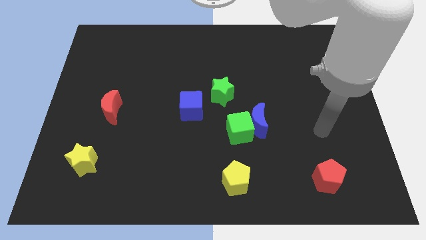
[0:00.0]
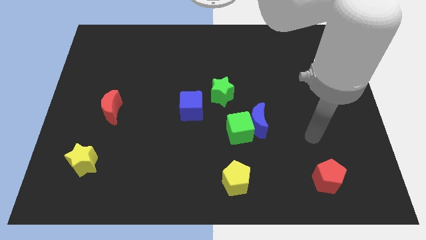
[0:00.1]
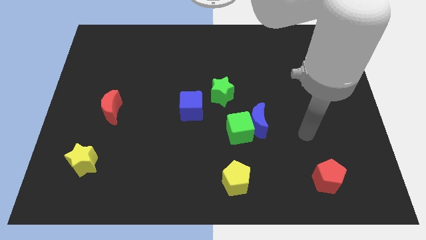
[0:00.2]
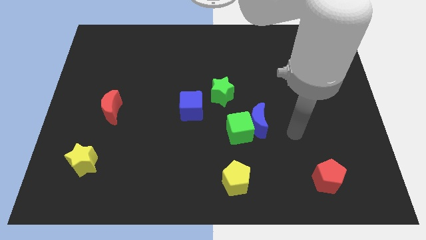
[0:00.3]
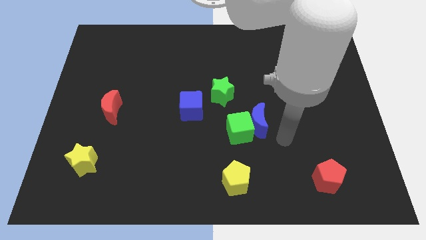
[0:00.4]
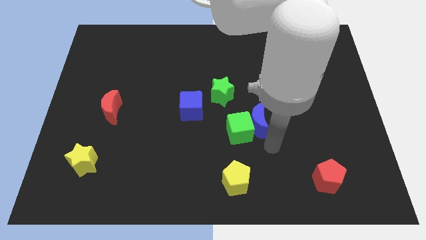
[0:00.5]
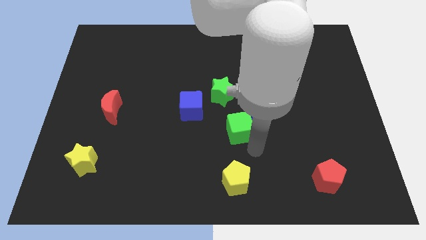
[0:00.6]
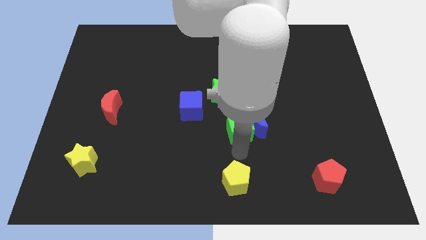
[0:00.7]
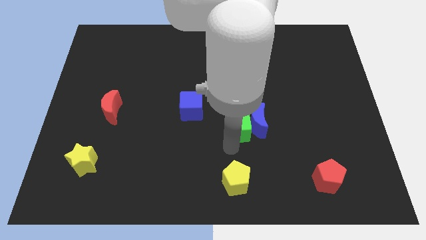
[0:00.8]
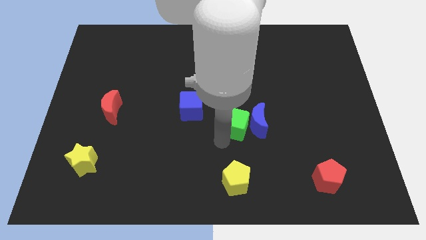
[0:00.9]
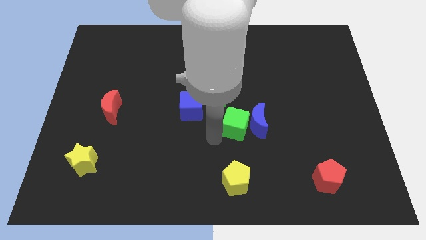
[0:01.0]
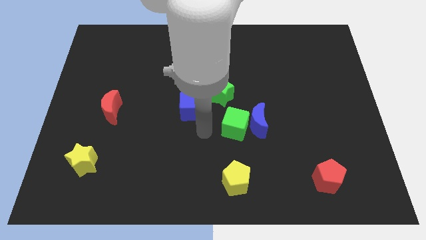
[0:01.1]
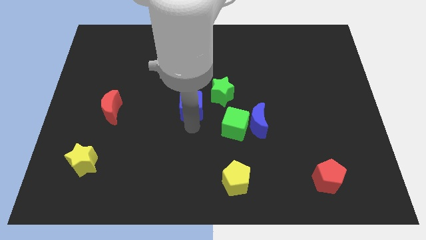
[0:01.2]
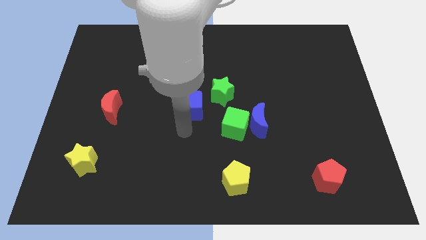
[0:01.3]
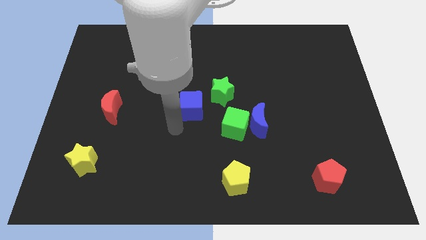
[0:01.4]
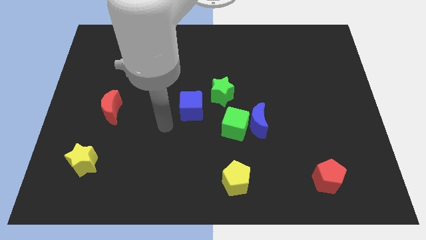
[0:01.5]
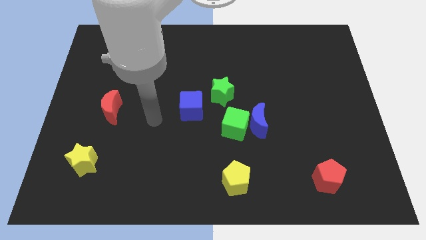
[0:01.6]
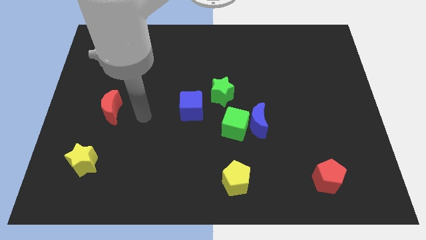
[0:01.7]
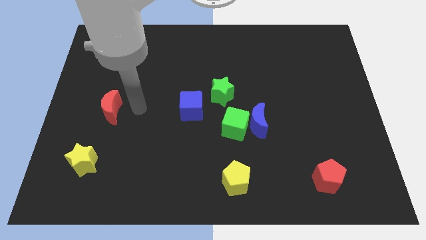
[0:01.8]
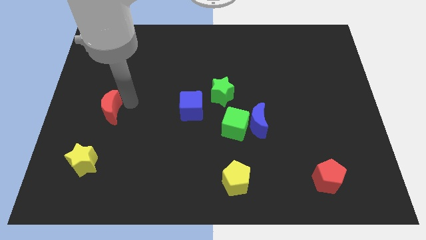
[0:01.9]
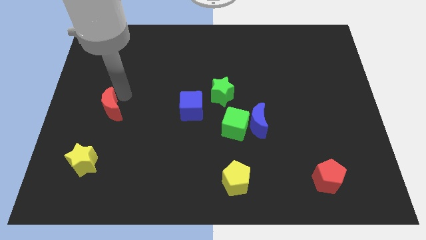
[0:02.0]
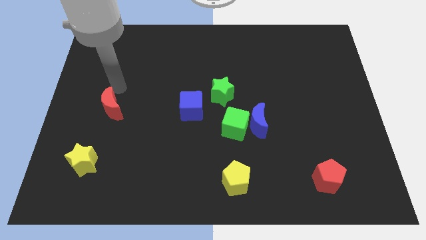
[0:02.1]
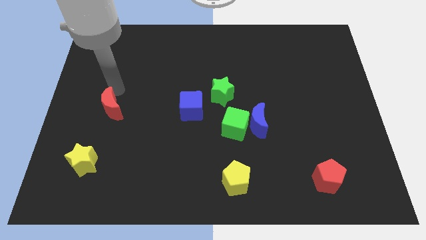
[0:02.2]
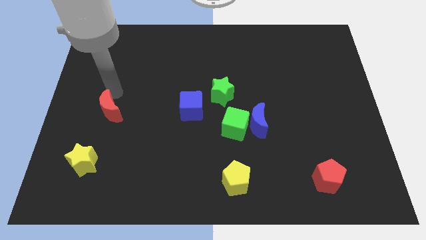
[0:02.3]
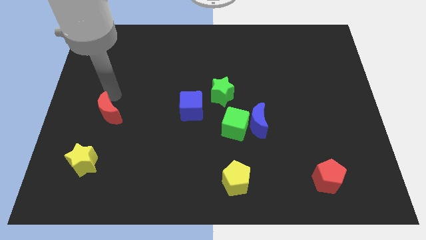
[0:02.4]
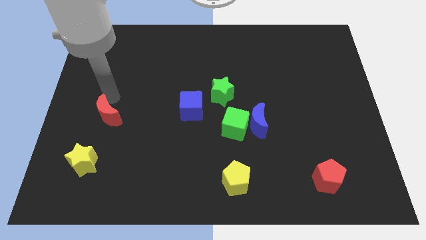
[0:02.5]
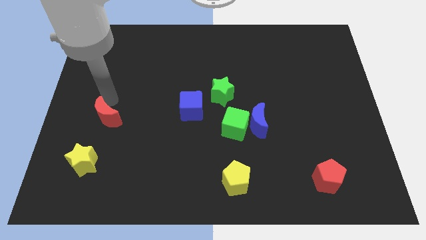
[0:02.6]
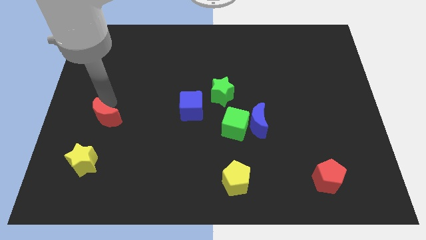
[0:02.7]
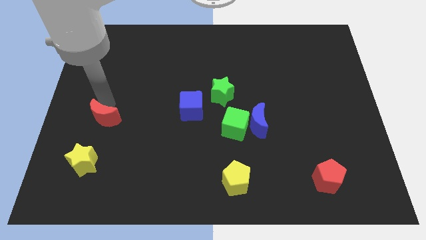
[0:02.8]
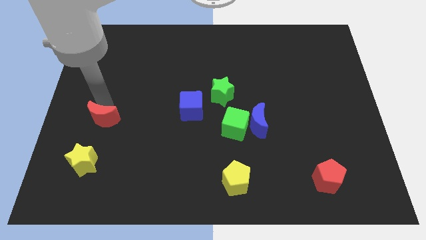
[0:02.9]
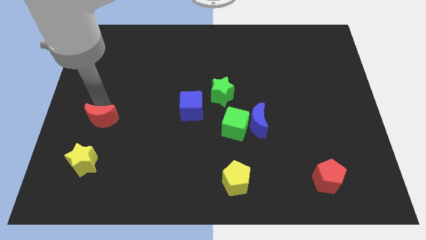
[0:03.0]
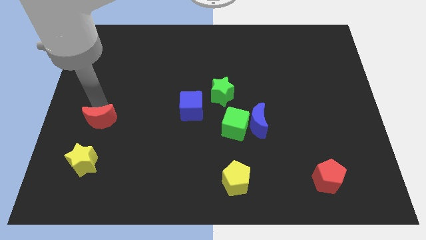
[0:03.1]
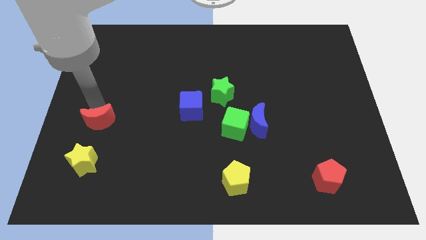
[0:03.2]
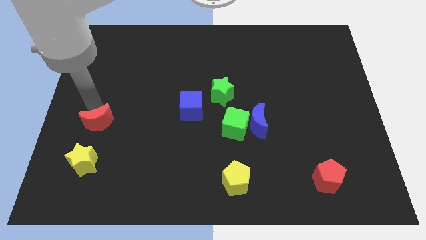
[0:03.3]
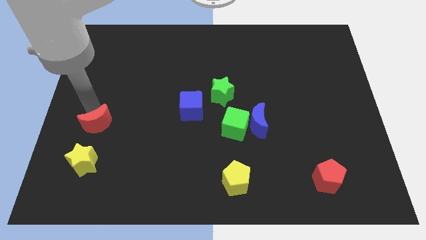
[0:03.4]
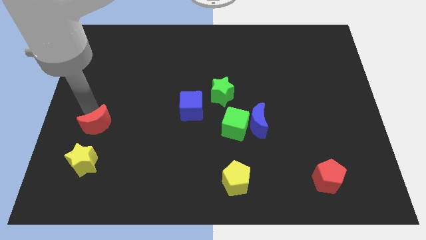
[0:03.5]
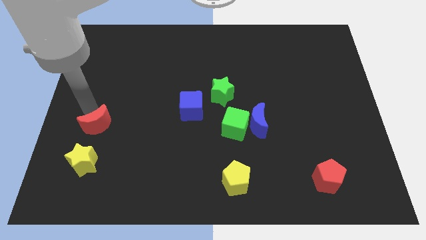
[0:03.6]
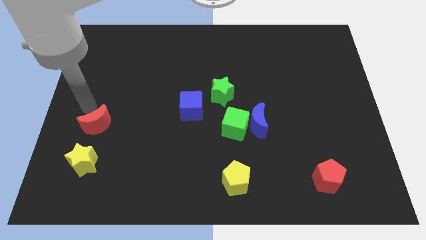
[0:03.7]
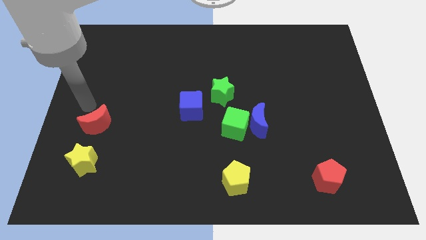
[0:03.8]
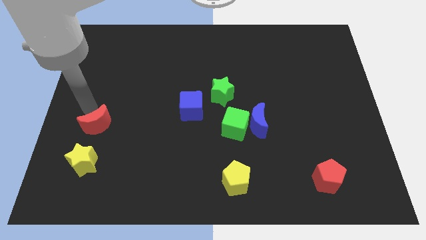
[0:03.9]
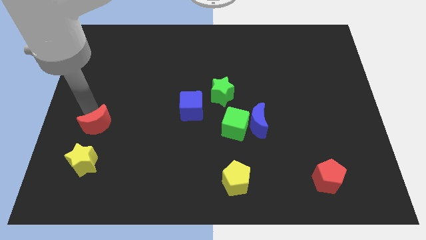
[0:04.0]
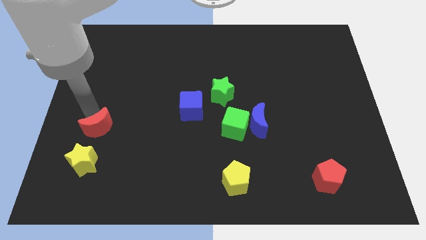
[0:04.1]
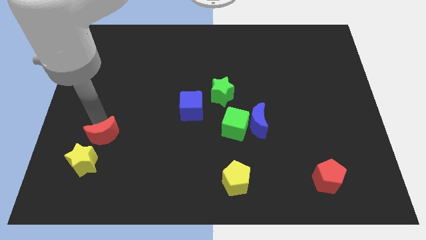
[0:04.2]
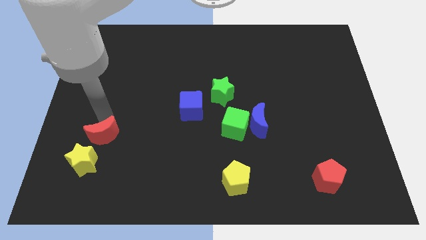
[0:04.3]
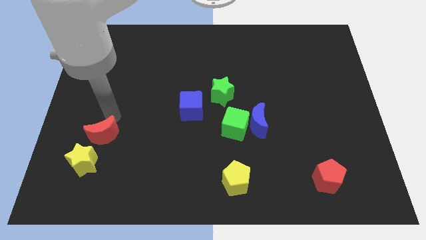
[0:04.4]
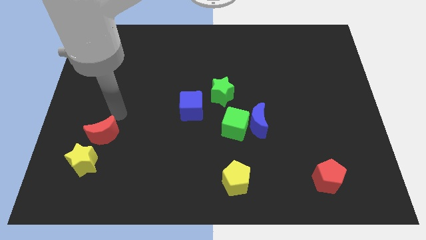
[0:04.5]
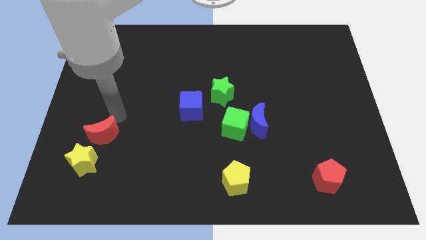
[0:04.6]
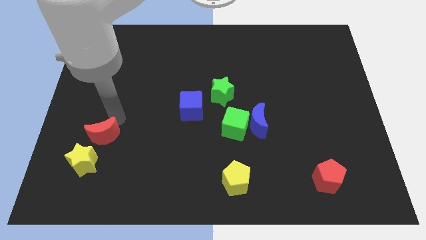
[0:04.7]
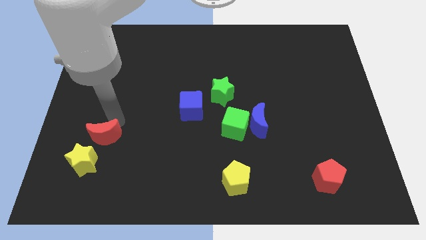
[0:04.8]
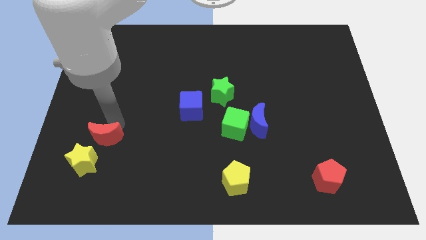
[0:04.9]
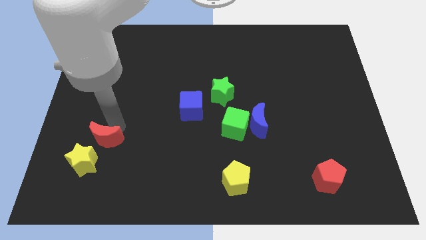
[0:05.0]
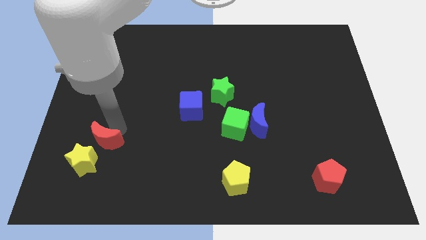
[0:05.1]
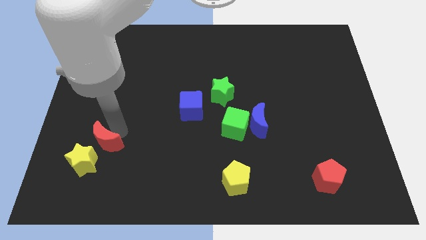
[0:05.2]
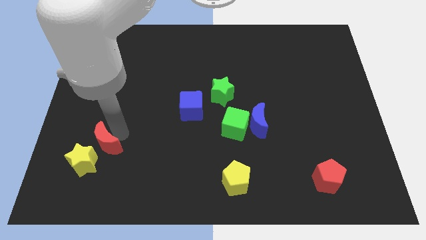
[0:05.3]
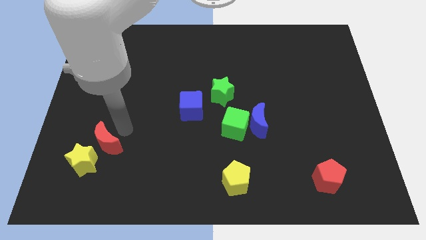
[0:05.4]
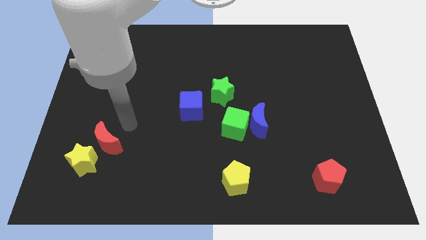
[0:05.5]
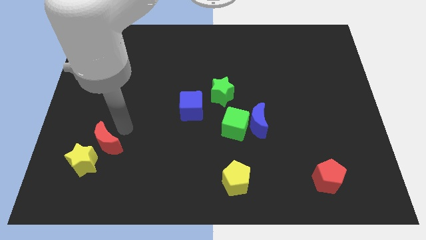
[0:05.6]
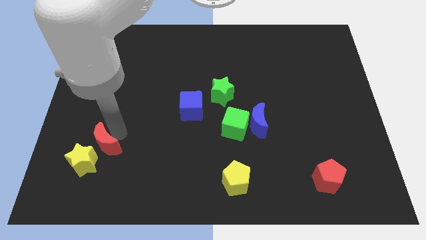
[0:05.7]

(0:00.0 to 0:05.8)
push the red moon close to the yellow star

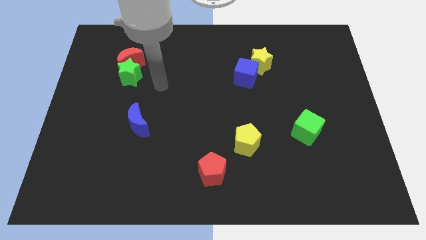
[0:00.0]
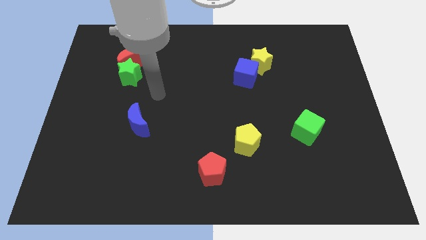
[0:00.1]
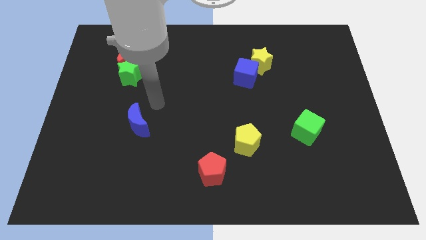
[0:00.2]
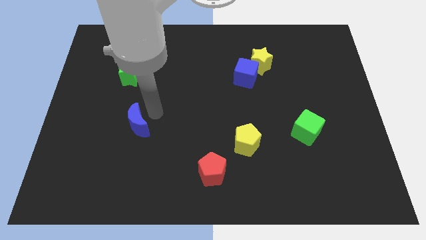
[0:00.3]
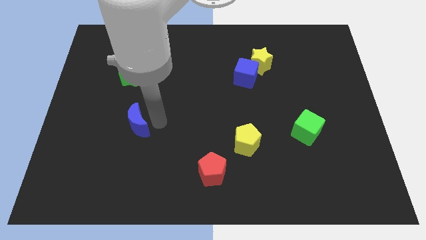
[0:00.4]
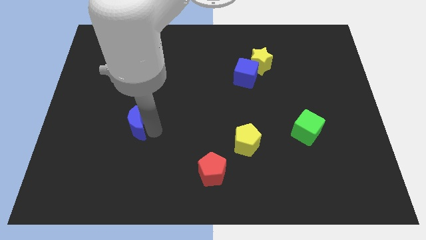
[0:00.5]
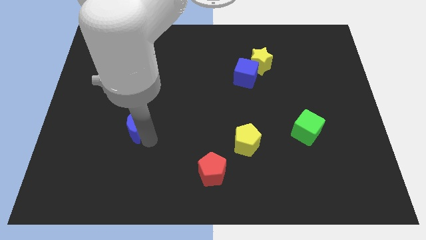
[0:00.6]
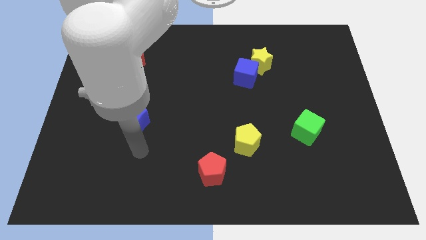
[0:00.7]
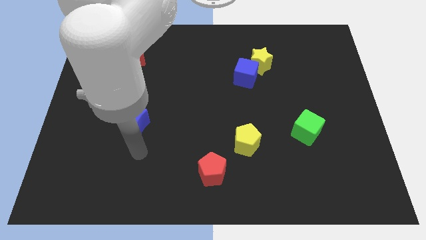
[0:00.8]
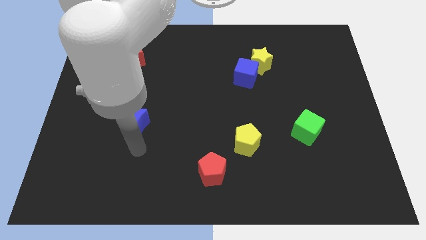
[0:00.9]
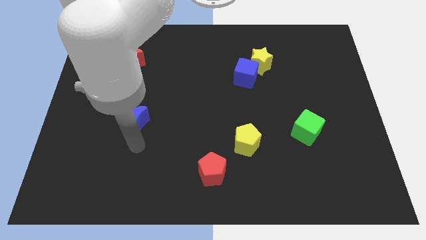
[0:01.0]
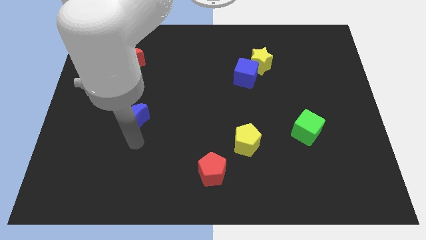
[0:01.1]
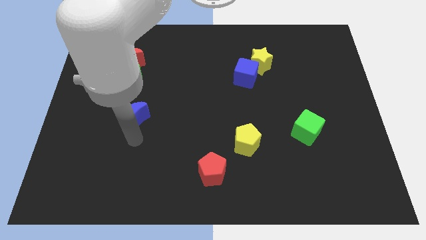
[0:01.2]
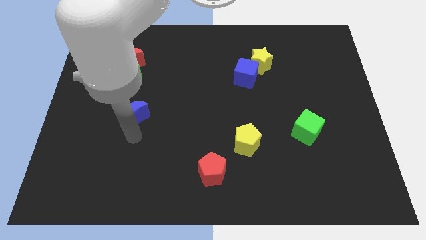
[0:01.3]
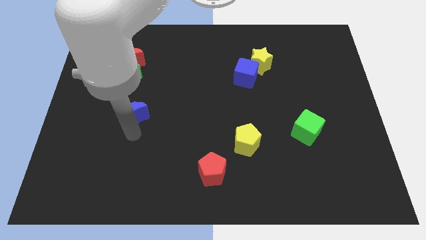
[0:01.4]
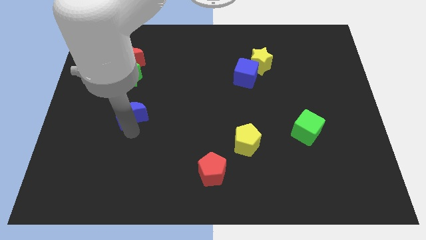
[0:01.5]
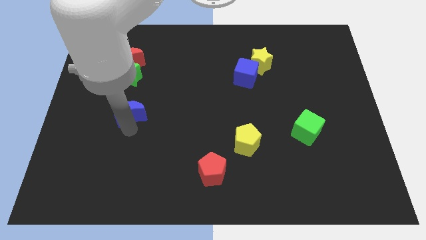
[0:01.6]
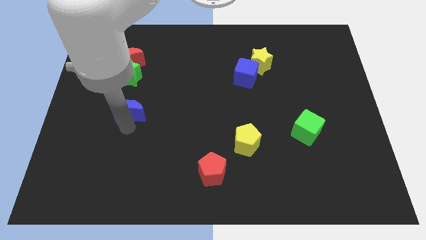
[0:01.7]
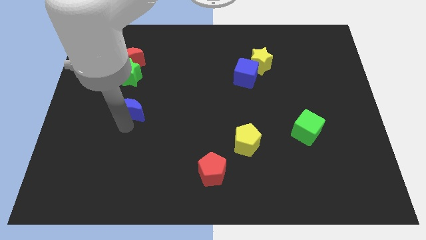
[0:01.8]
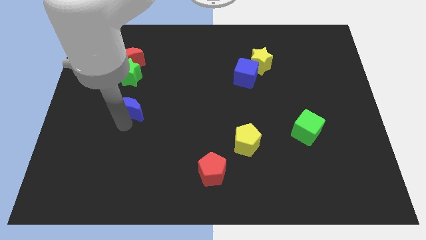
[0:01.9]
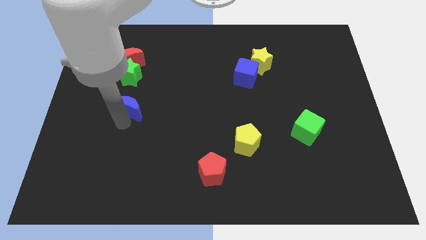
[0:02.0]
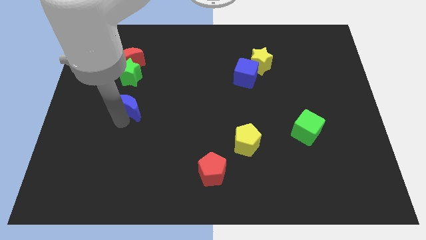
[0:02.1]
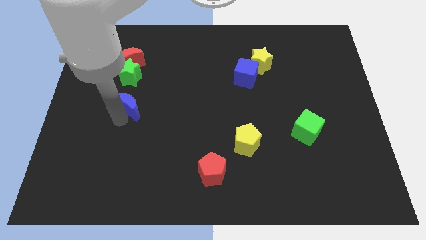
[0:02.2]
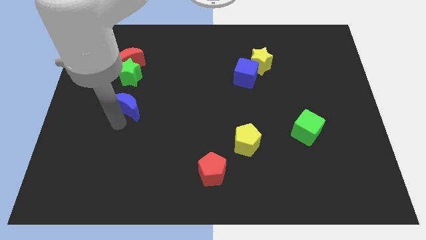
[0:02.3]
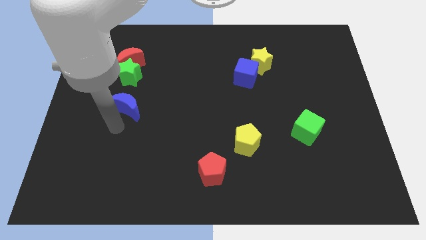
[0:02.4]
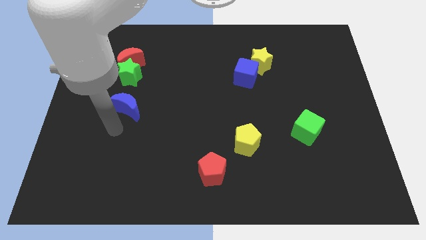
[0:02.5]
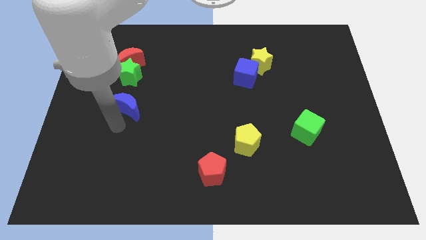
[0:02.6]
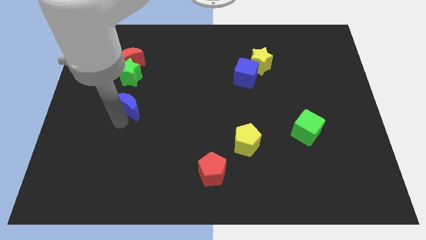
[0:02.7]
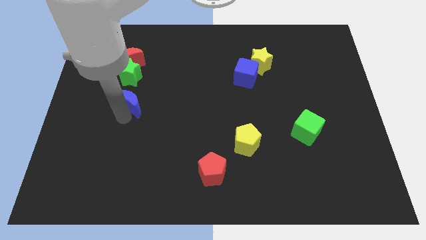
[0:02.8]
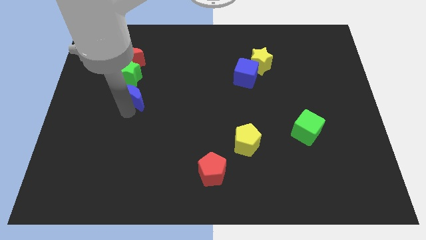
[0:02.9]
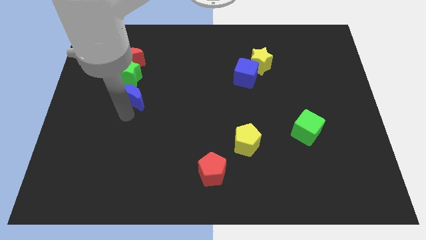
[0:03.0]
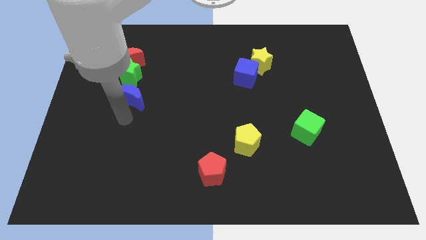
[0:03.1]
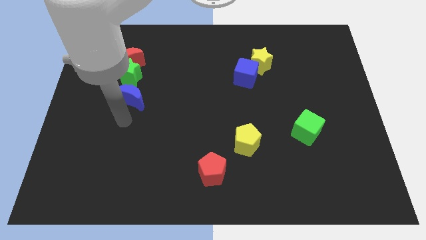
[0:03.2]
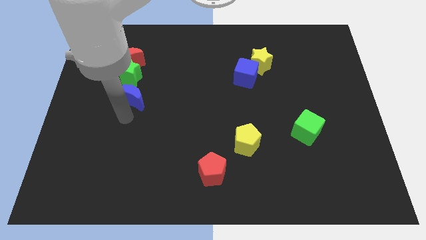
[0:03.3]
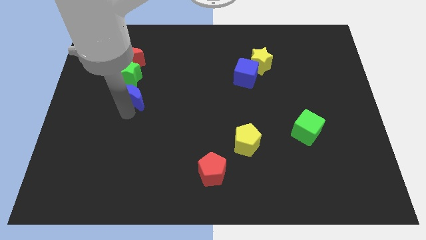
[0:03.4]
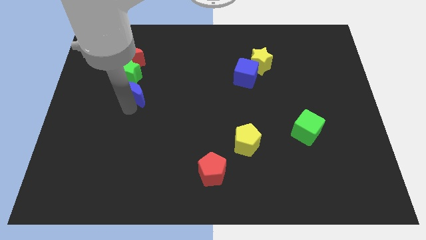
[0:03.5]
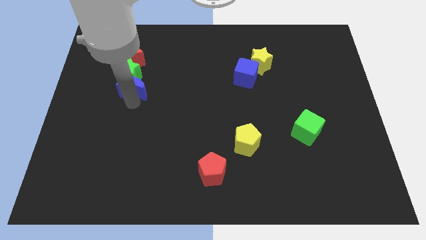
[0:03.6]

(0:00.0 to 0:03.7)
push the blue moon close to the green star
